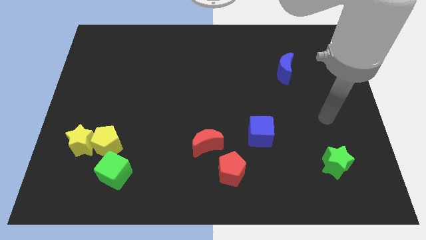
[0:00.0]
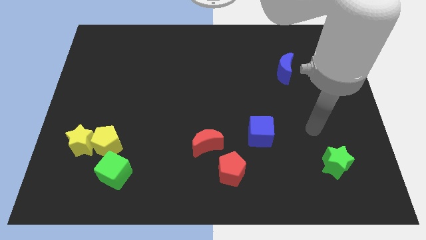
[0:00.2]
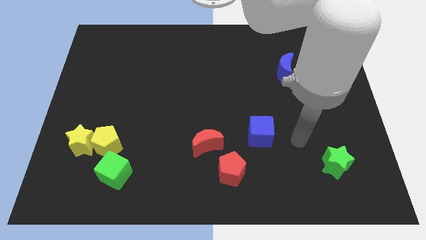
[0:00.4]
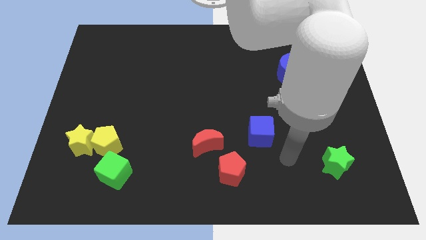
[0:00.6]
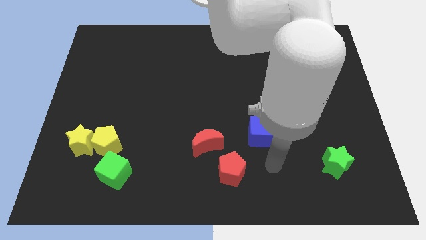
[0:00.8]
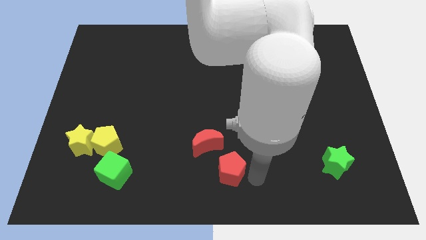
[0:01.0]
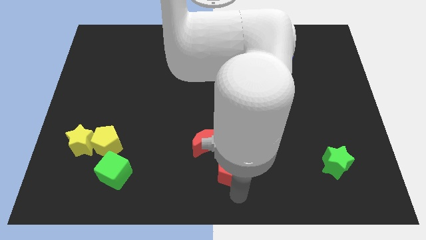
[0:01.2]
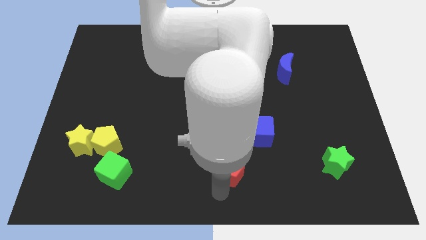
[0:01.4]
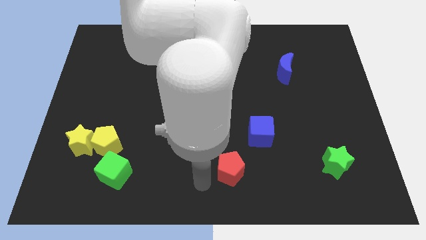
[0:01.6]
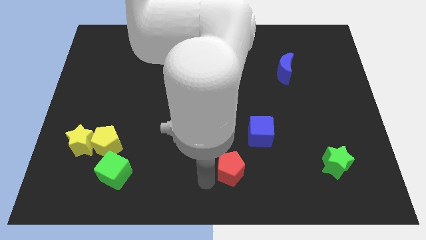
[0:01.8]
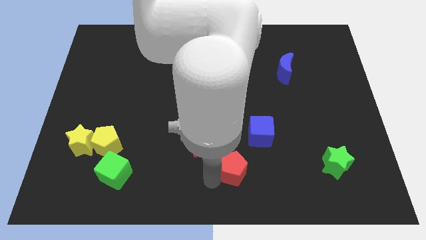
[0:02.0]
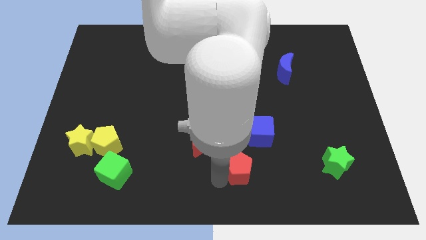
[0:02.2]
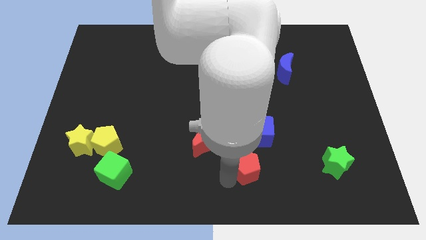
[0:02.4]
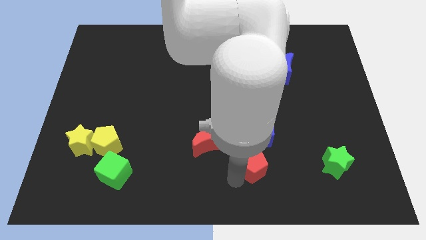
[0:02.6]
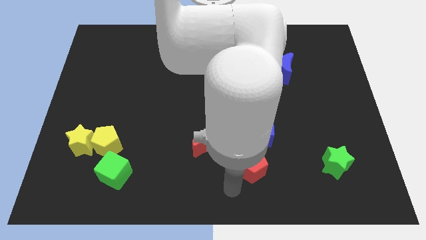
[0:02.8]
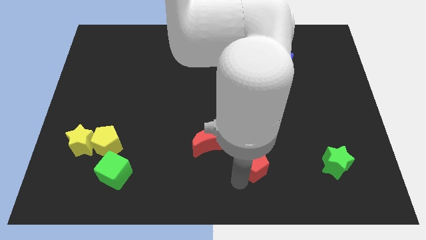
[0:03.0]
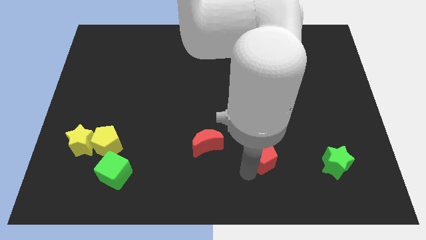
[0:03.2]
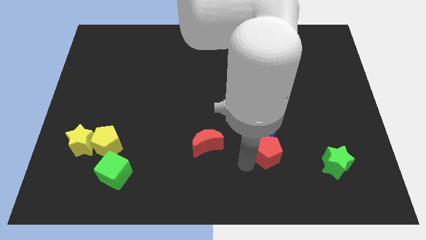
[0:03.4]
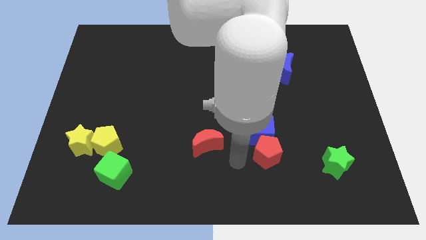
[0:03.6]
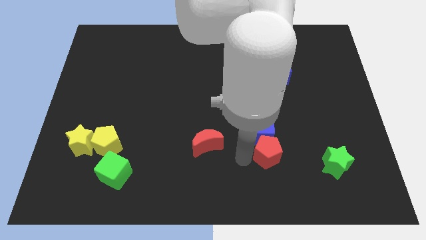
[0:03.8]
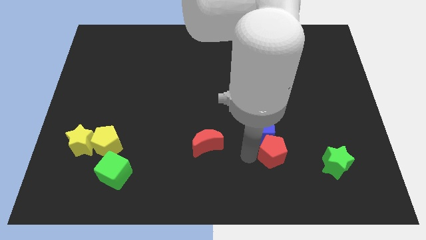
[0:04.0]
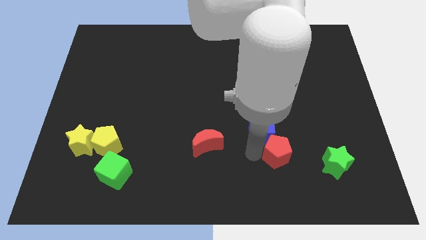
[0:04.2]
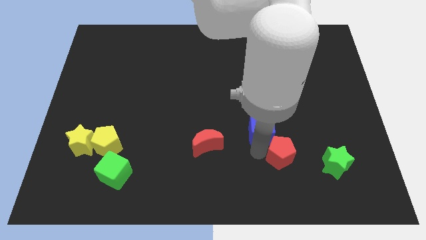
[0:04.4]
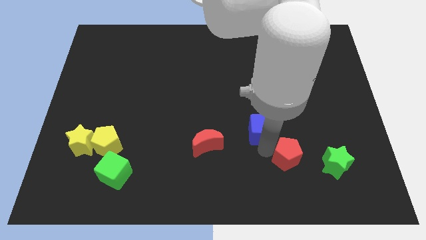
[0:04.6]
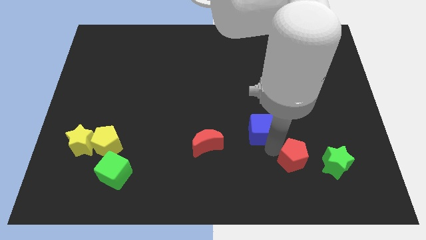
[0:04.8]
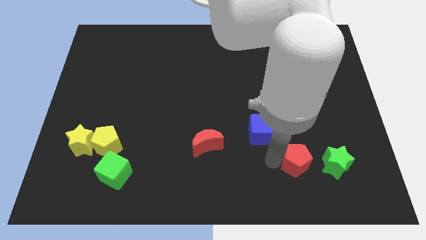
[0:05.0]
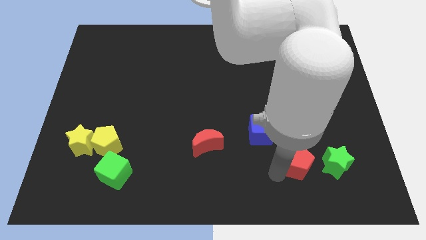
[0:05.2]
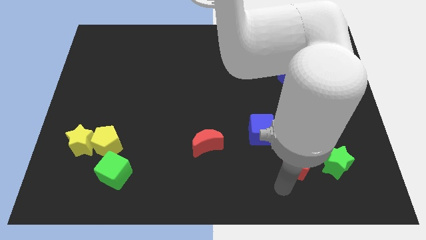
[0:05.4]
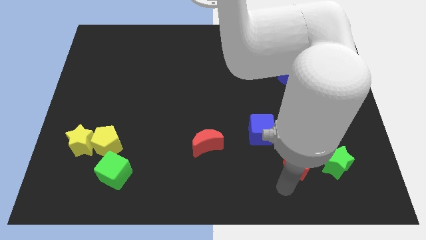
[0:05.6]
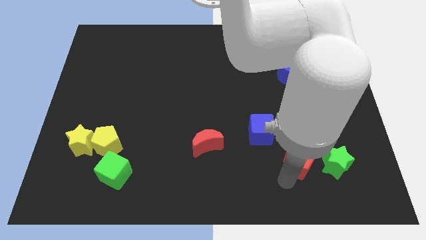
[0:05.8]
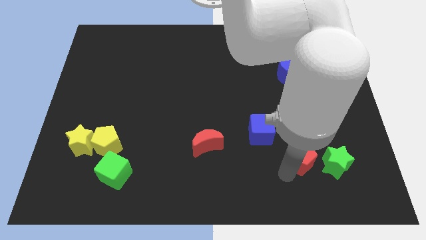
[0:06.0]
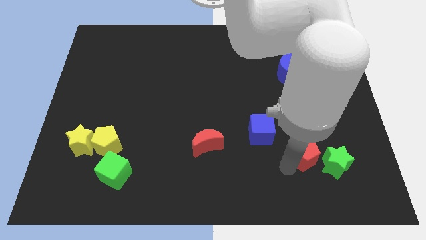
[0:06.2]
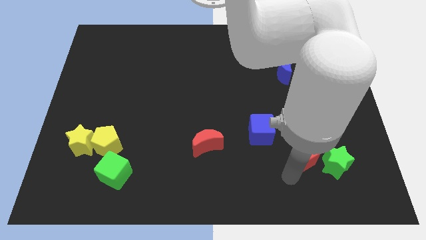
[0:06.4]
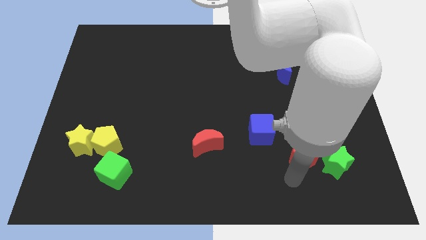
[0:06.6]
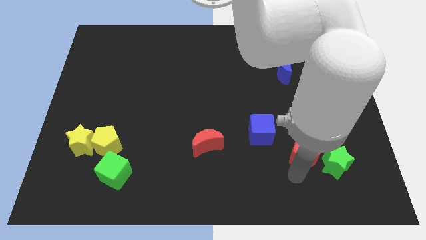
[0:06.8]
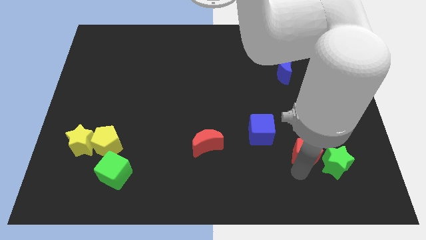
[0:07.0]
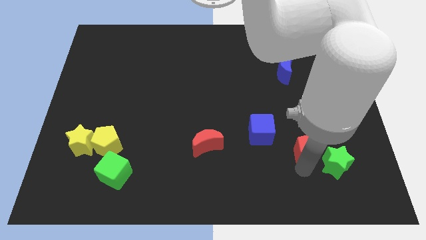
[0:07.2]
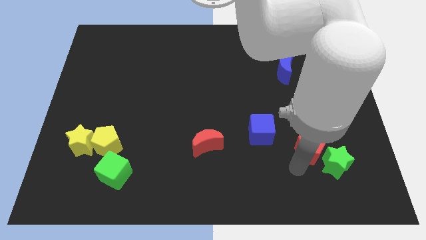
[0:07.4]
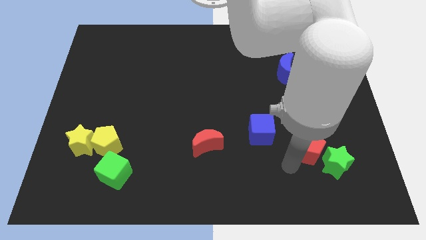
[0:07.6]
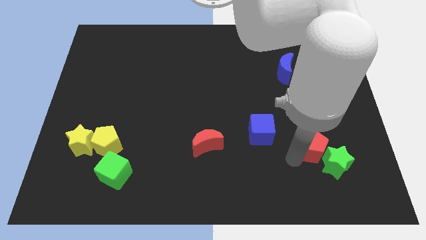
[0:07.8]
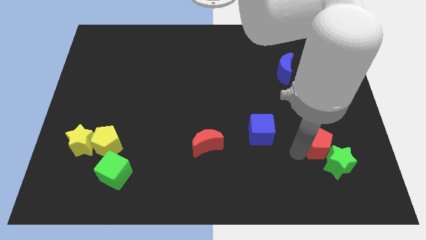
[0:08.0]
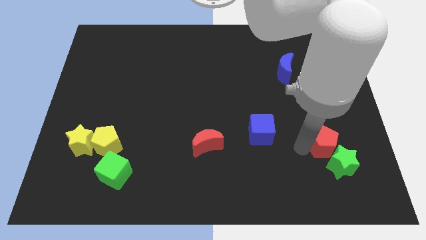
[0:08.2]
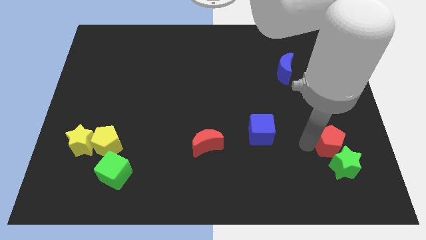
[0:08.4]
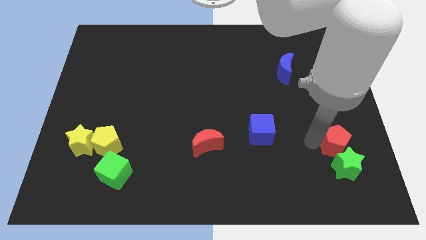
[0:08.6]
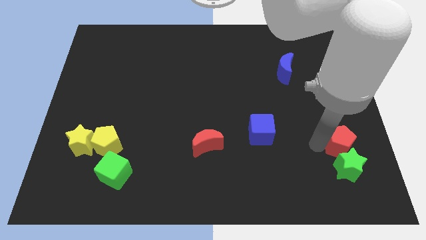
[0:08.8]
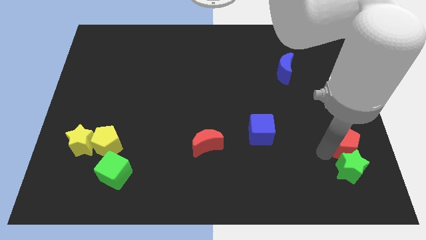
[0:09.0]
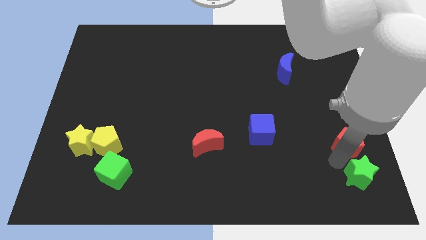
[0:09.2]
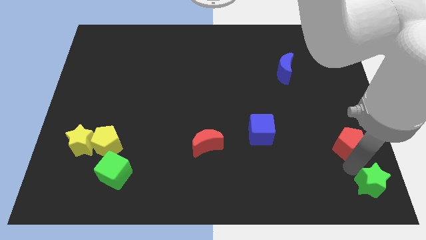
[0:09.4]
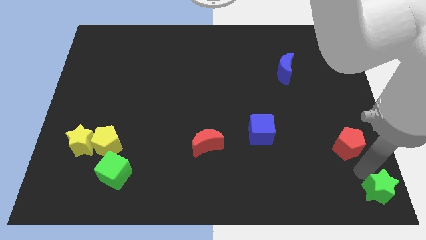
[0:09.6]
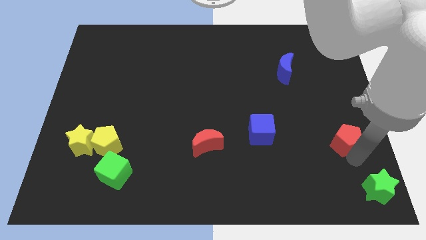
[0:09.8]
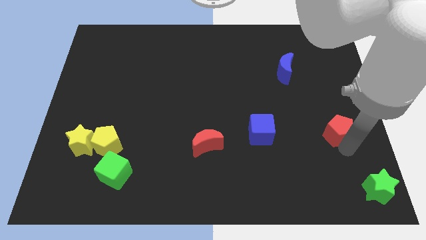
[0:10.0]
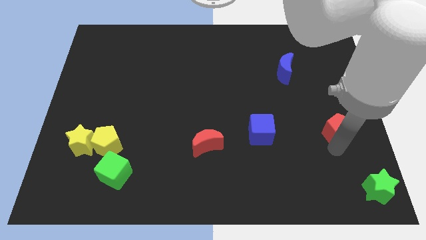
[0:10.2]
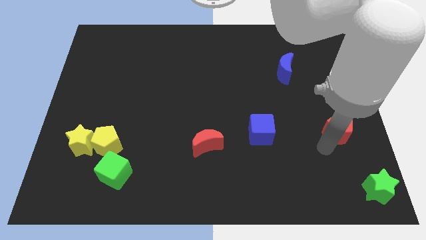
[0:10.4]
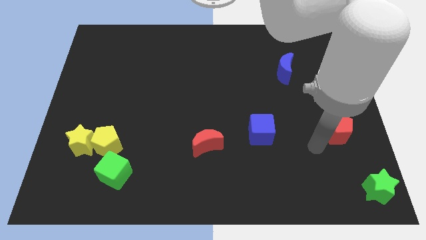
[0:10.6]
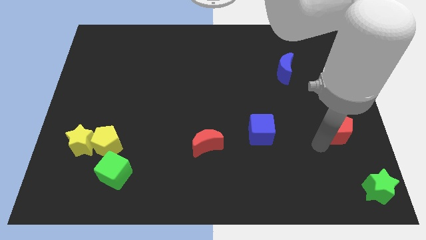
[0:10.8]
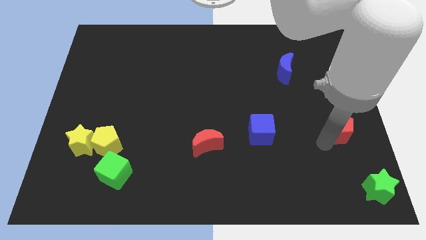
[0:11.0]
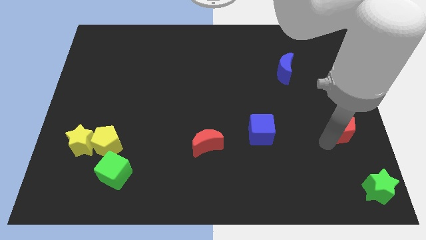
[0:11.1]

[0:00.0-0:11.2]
put the red pentagon to the right side

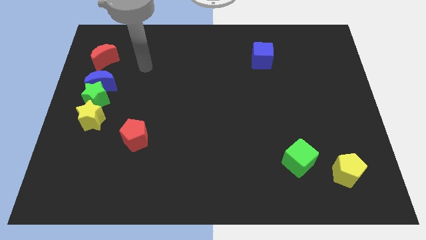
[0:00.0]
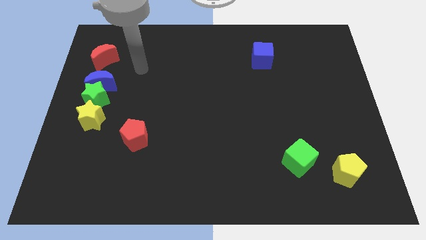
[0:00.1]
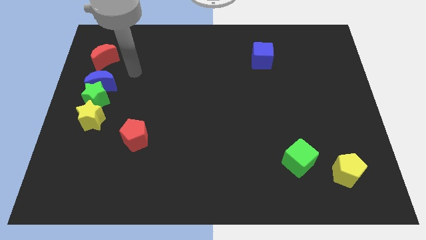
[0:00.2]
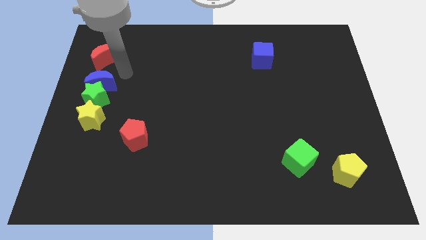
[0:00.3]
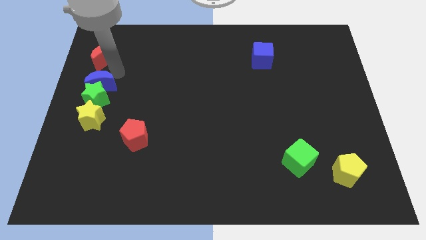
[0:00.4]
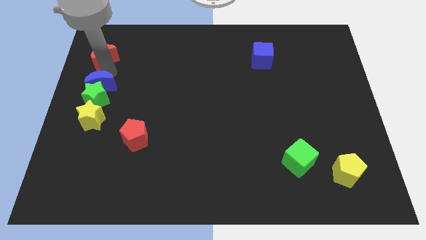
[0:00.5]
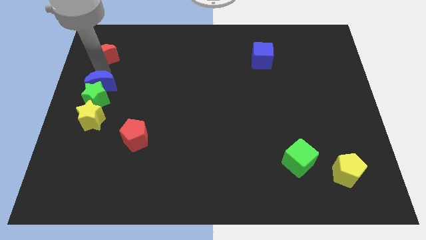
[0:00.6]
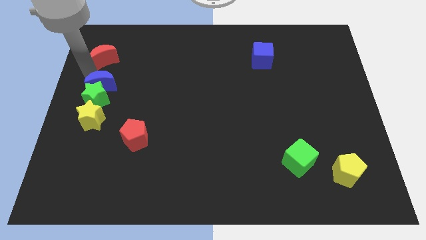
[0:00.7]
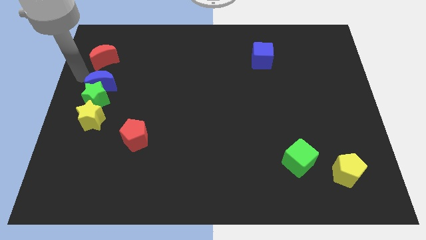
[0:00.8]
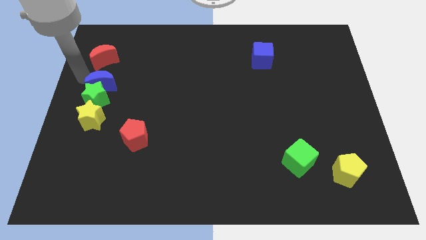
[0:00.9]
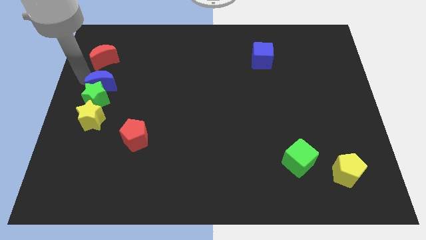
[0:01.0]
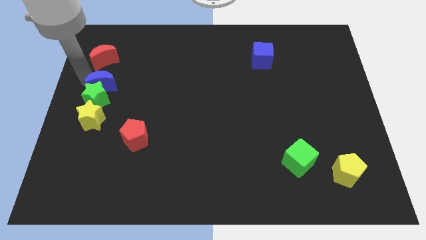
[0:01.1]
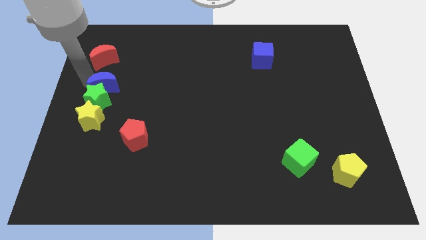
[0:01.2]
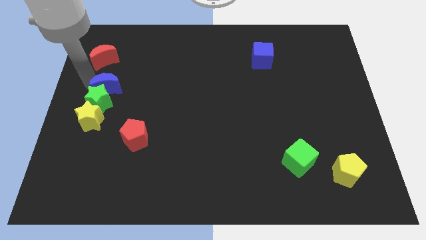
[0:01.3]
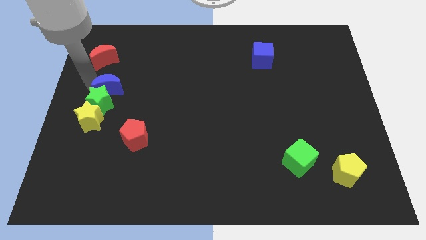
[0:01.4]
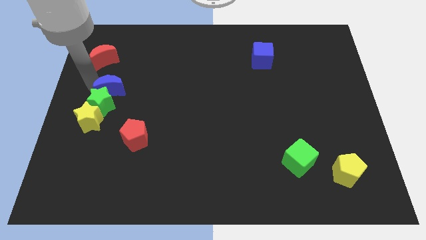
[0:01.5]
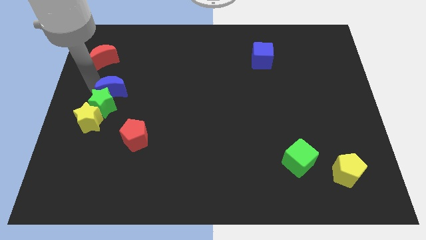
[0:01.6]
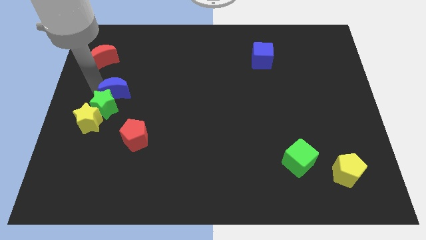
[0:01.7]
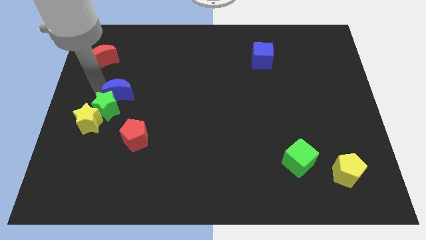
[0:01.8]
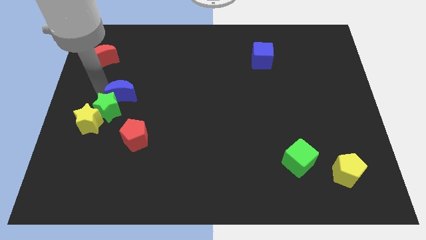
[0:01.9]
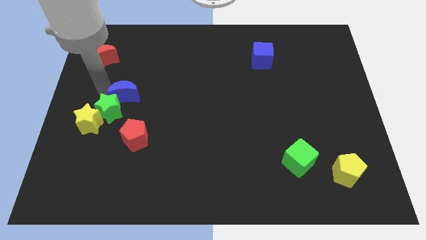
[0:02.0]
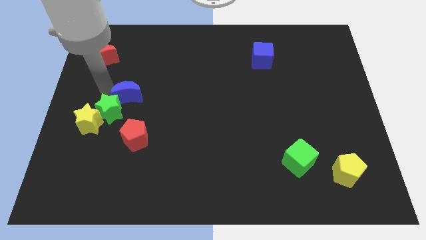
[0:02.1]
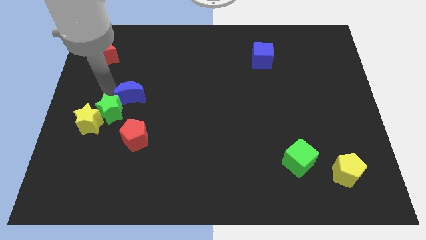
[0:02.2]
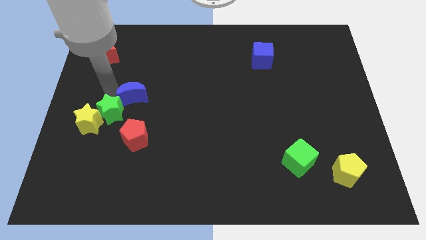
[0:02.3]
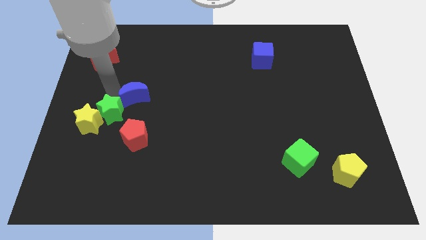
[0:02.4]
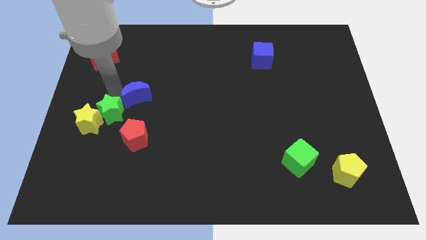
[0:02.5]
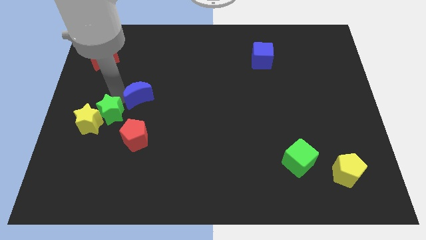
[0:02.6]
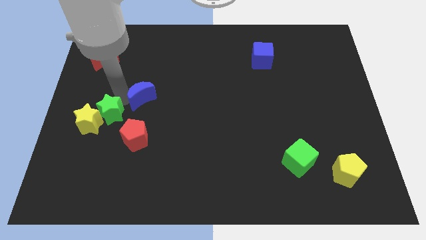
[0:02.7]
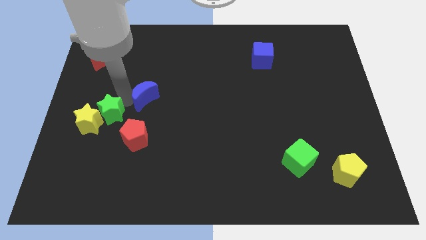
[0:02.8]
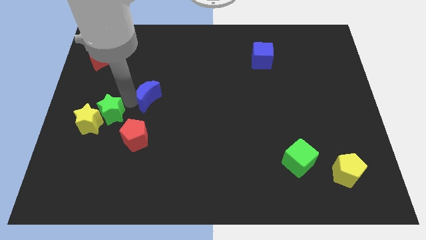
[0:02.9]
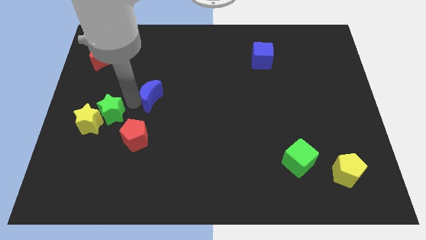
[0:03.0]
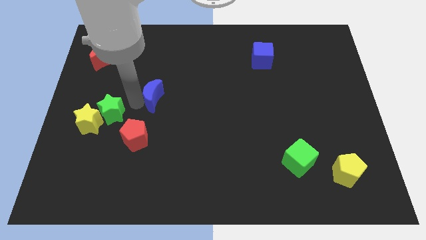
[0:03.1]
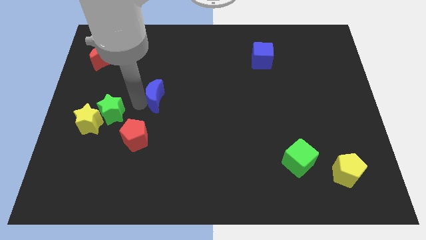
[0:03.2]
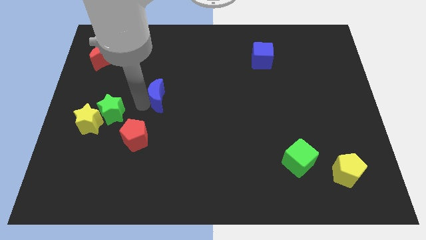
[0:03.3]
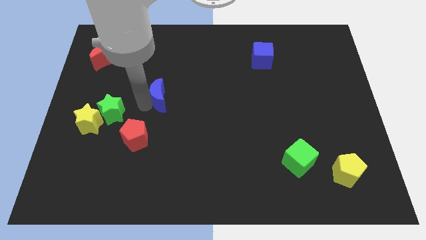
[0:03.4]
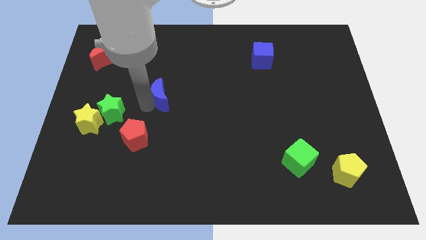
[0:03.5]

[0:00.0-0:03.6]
slide the blue moon to the middle
